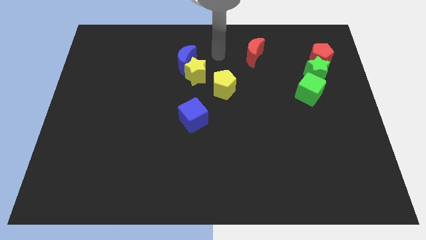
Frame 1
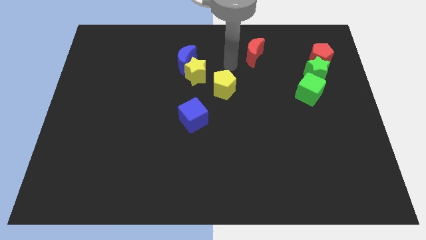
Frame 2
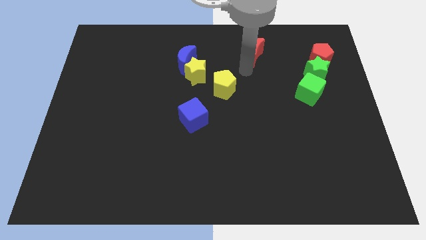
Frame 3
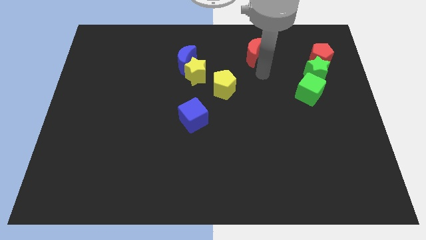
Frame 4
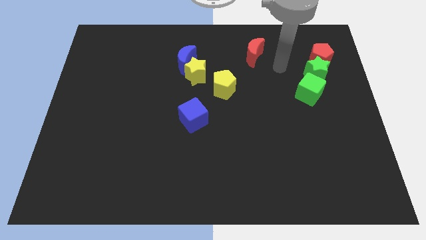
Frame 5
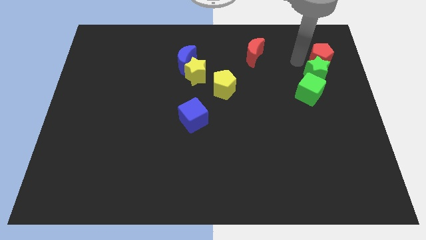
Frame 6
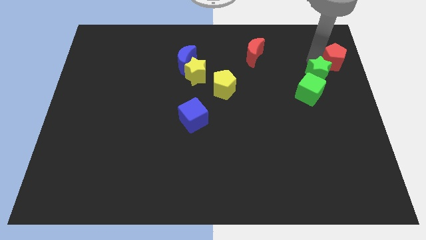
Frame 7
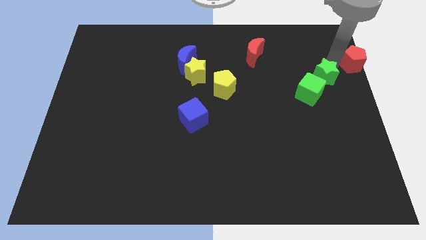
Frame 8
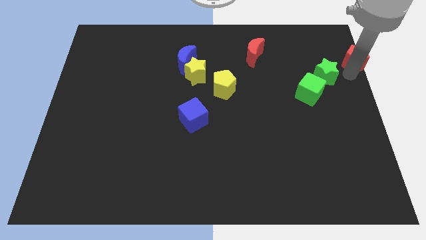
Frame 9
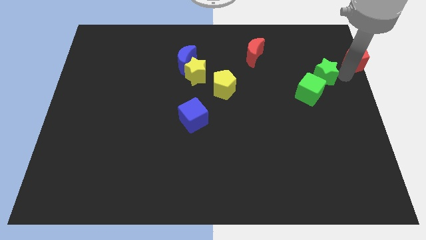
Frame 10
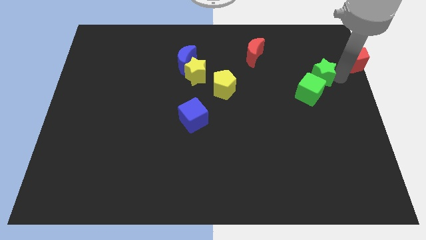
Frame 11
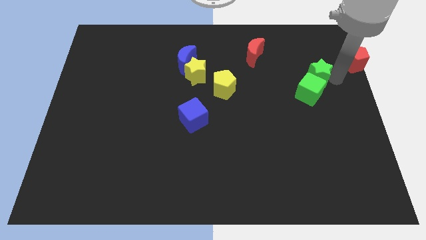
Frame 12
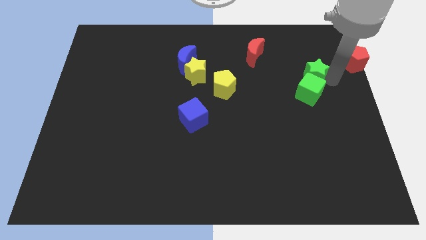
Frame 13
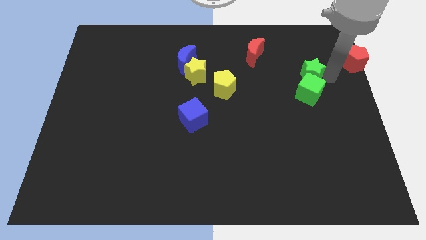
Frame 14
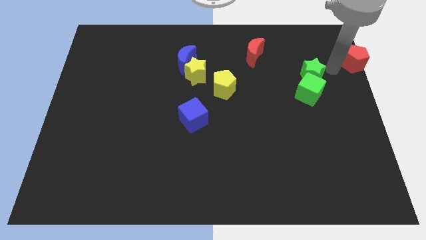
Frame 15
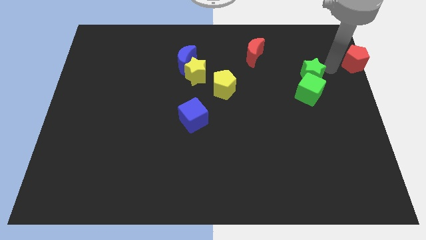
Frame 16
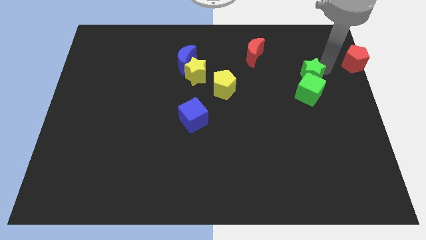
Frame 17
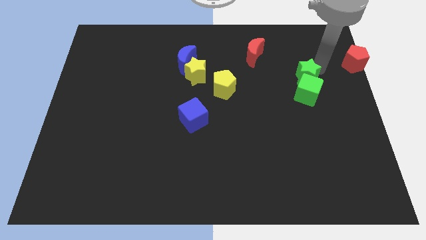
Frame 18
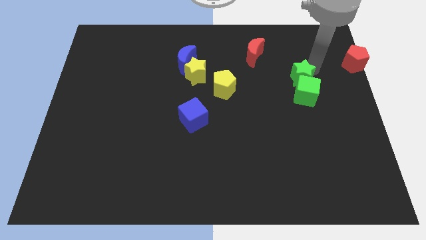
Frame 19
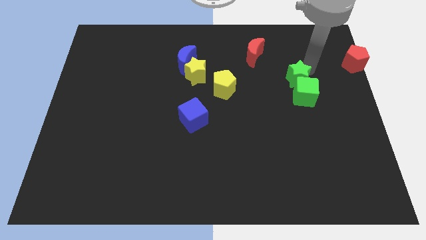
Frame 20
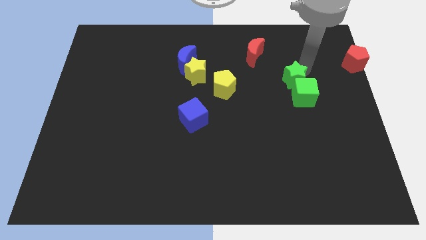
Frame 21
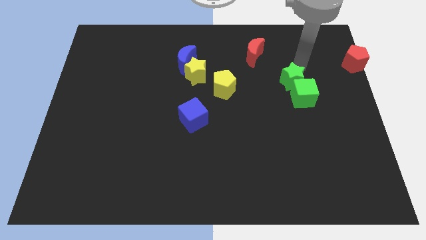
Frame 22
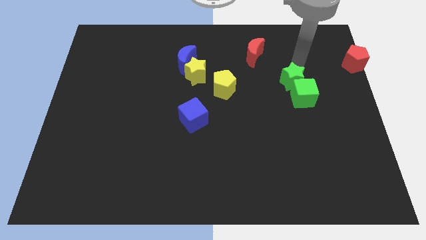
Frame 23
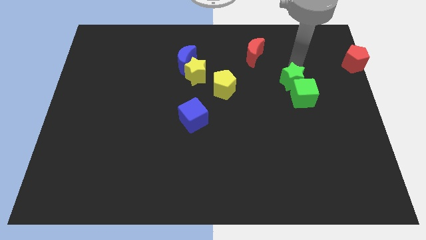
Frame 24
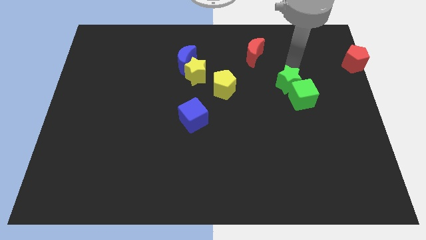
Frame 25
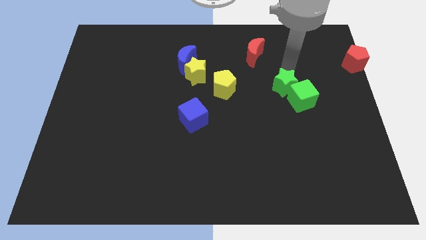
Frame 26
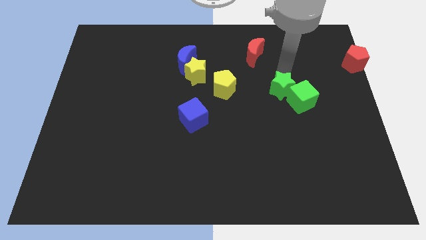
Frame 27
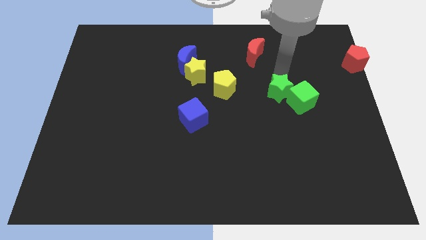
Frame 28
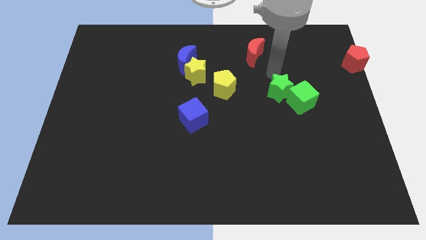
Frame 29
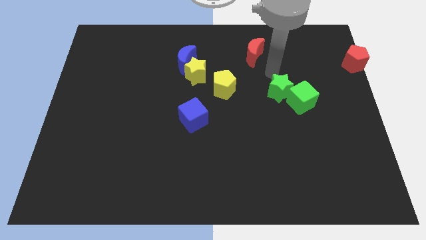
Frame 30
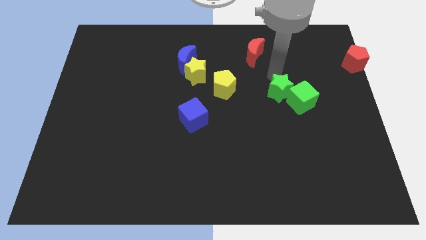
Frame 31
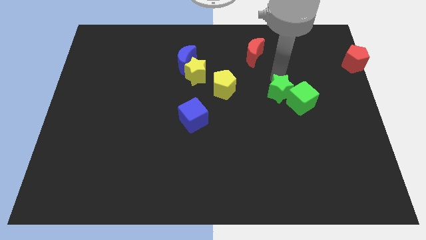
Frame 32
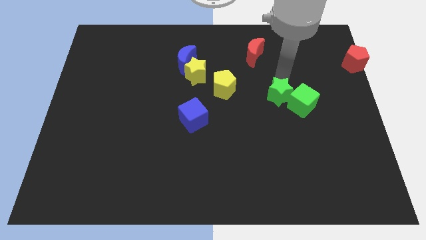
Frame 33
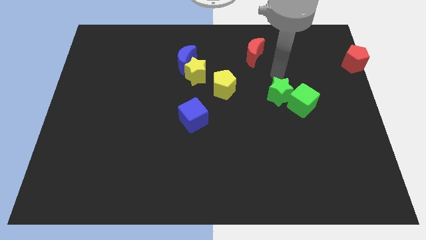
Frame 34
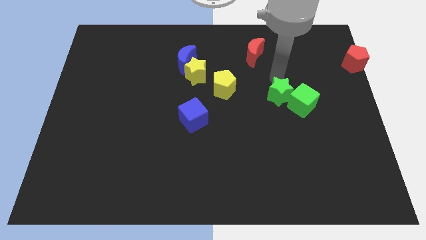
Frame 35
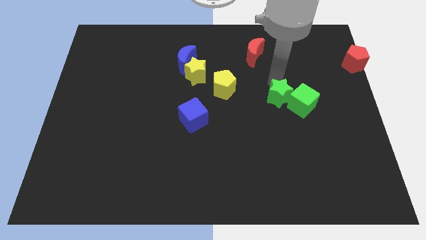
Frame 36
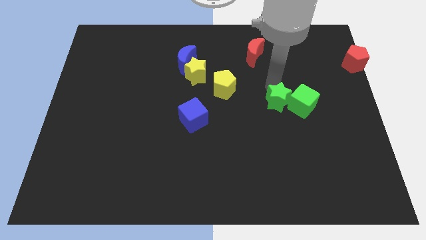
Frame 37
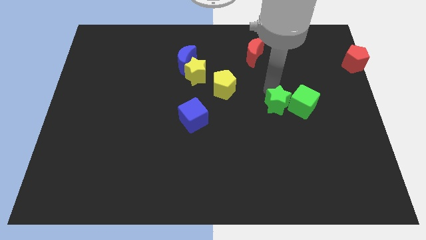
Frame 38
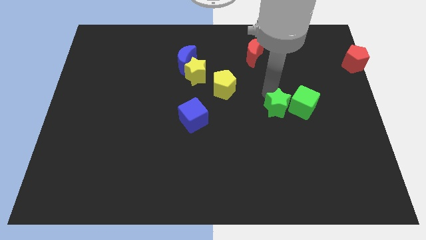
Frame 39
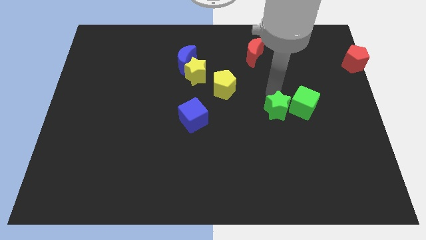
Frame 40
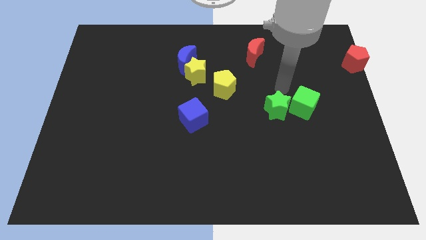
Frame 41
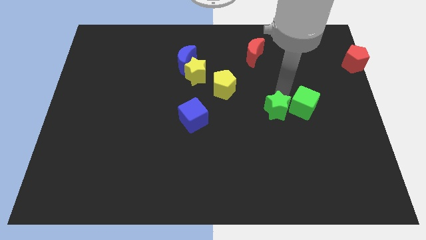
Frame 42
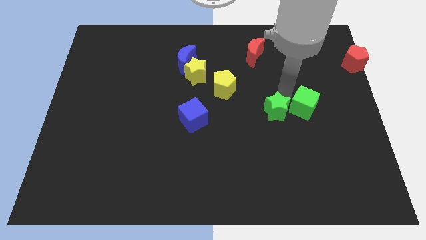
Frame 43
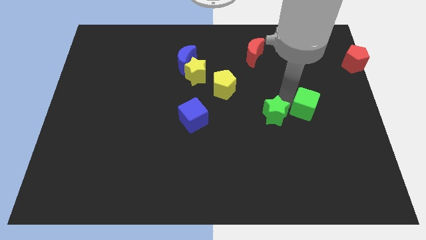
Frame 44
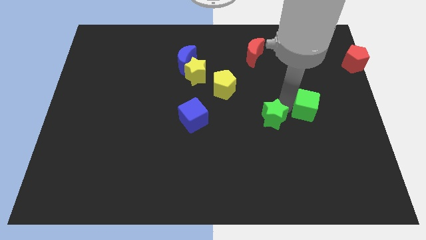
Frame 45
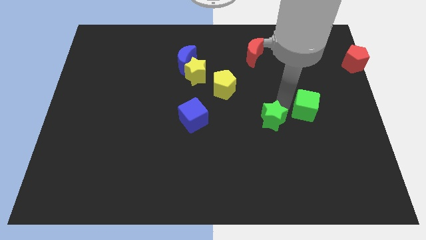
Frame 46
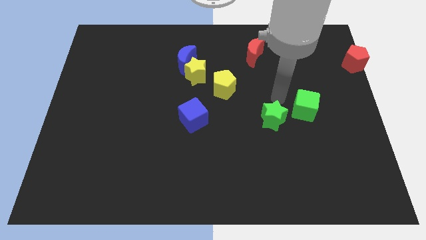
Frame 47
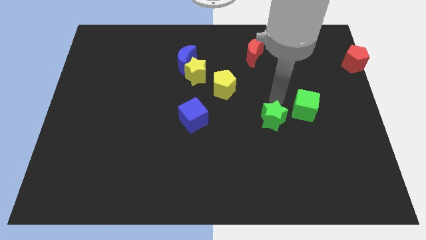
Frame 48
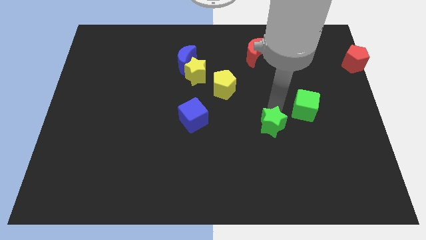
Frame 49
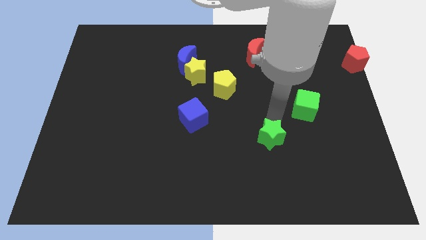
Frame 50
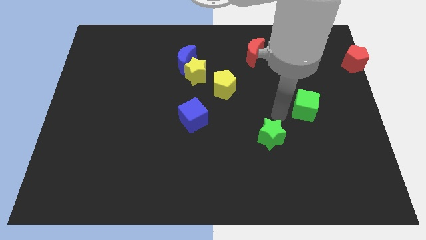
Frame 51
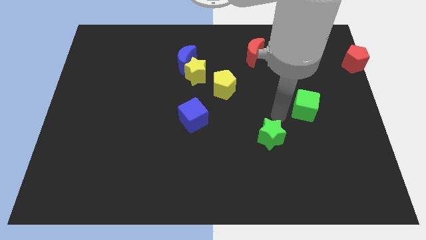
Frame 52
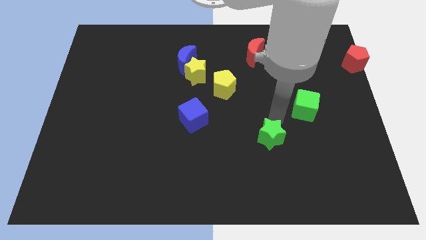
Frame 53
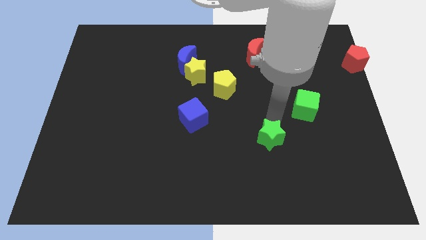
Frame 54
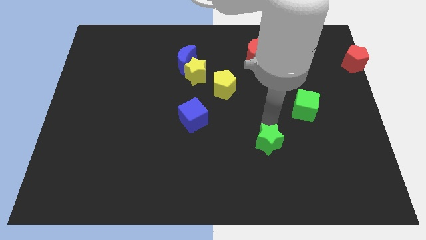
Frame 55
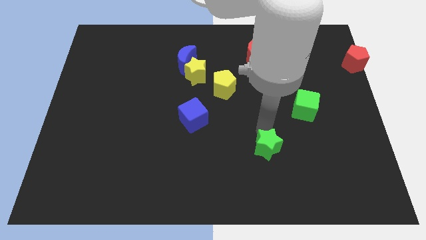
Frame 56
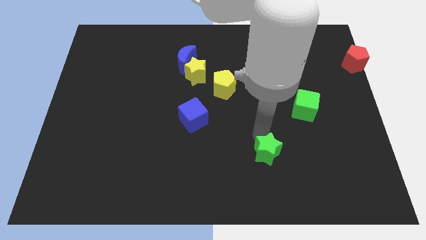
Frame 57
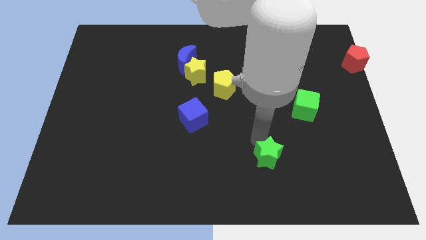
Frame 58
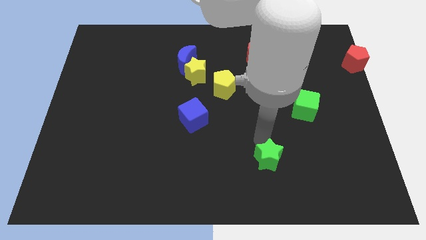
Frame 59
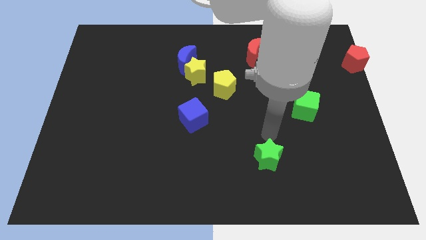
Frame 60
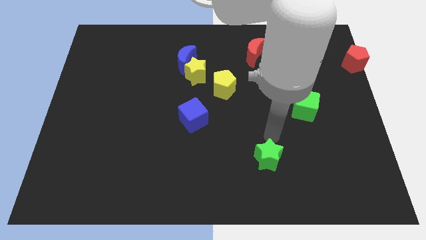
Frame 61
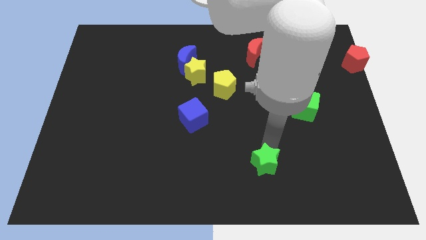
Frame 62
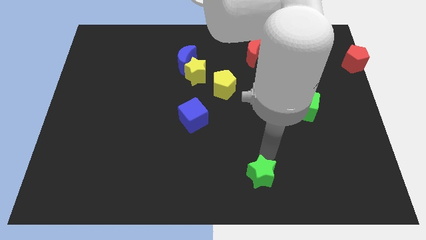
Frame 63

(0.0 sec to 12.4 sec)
move the green star to the bottom side
